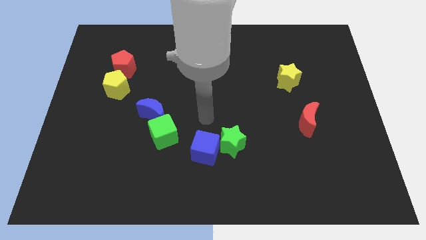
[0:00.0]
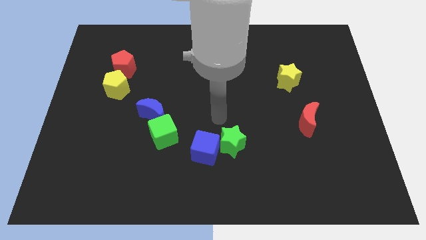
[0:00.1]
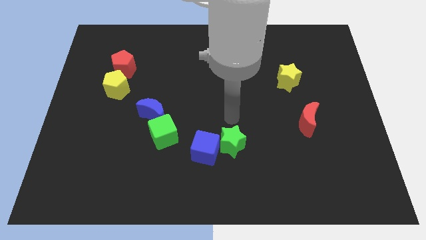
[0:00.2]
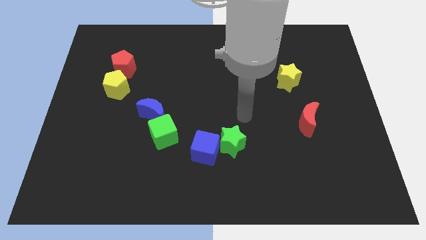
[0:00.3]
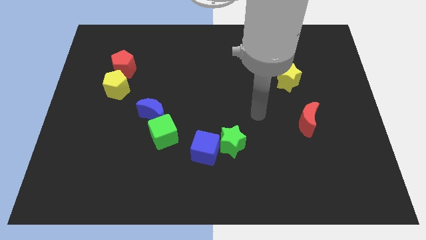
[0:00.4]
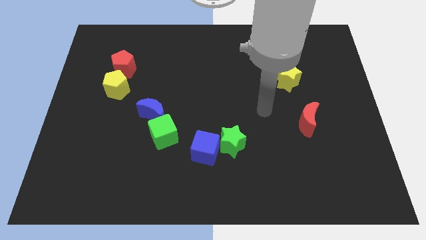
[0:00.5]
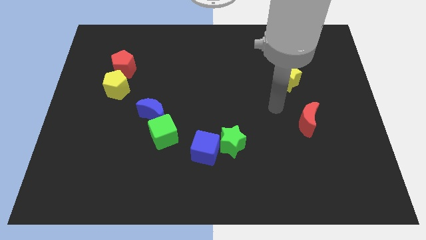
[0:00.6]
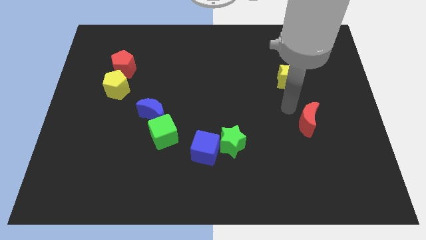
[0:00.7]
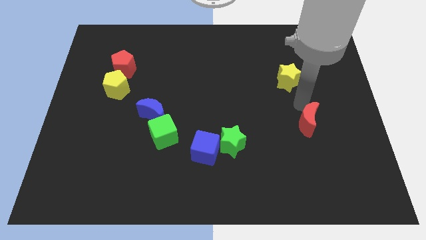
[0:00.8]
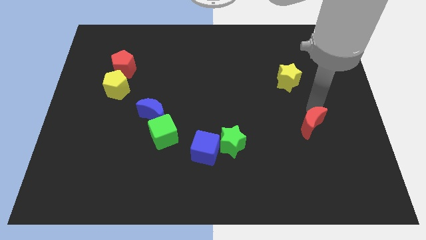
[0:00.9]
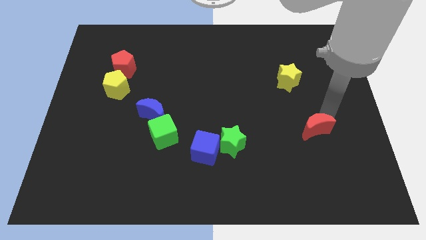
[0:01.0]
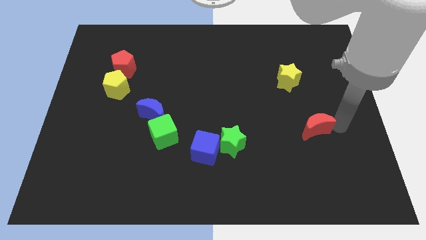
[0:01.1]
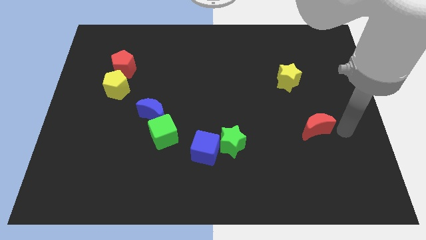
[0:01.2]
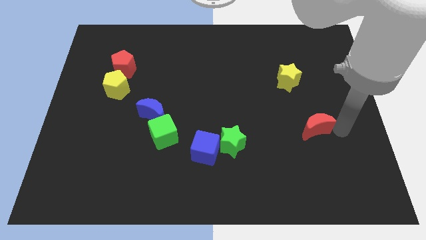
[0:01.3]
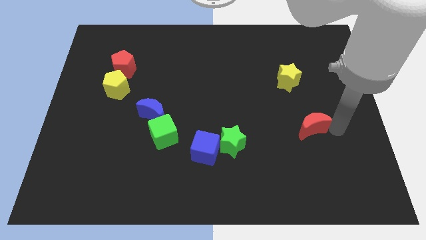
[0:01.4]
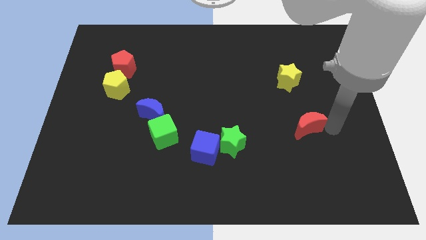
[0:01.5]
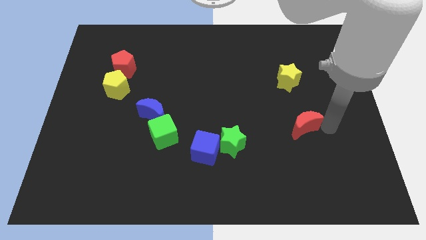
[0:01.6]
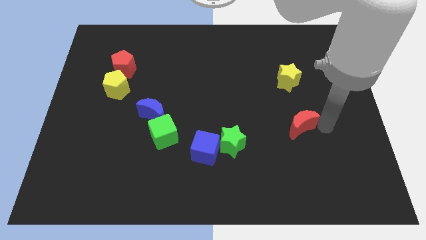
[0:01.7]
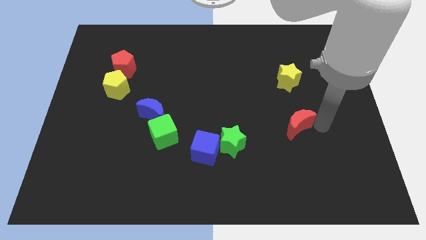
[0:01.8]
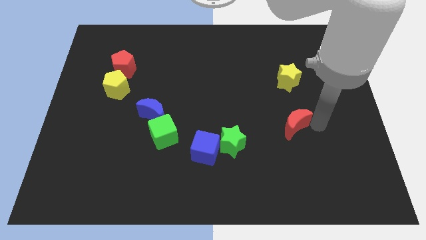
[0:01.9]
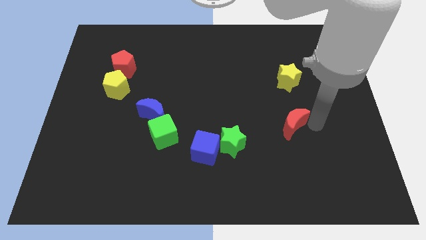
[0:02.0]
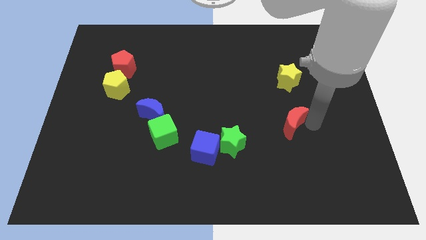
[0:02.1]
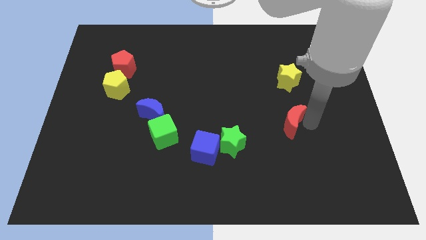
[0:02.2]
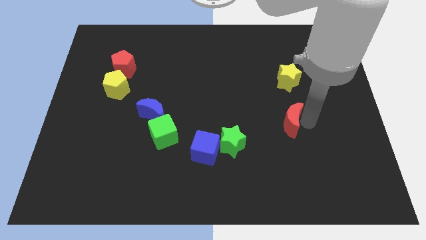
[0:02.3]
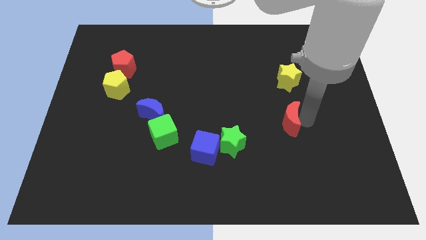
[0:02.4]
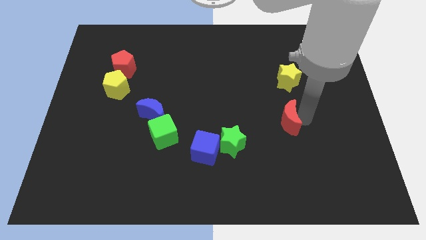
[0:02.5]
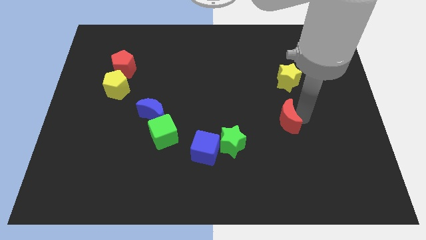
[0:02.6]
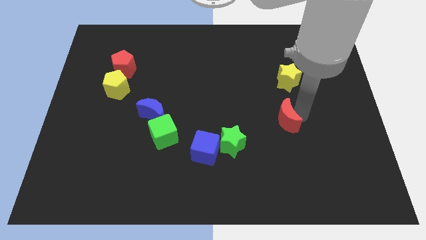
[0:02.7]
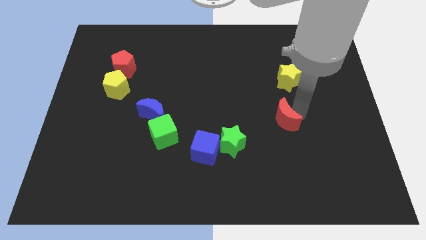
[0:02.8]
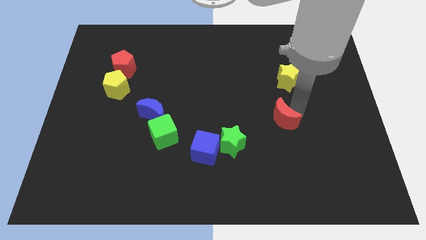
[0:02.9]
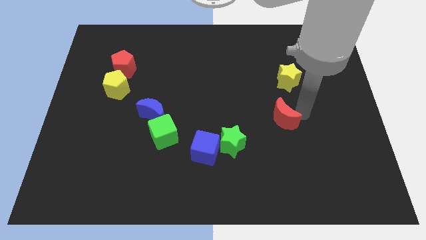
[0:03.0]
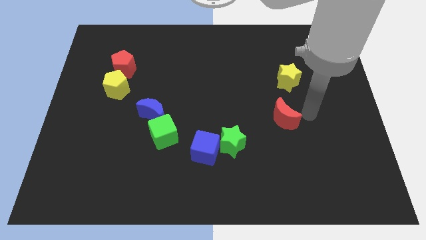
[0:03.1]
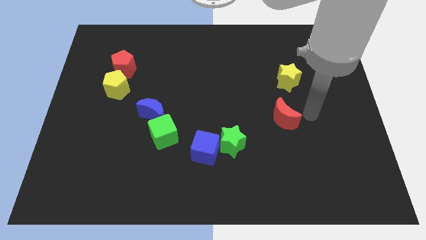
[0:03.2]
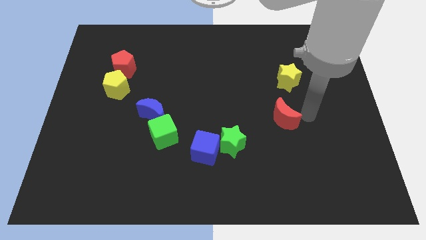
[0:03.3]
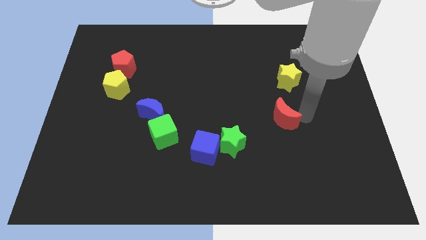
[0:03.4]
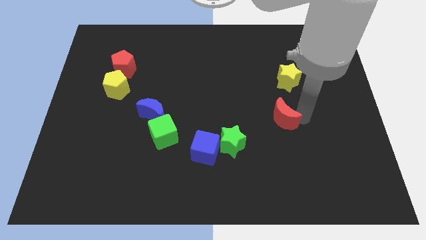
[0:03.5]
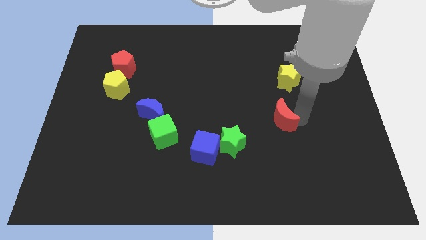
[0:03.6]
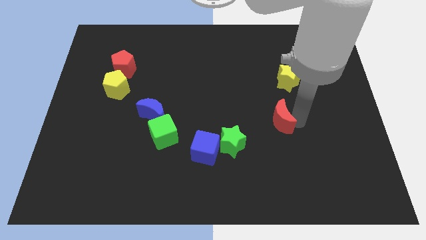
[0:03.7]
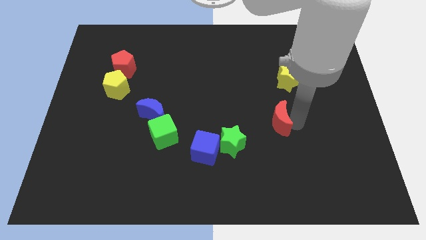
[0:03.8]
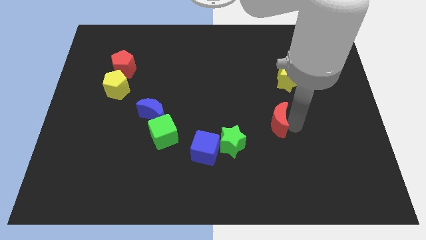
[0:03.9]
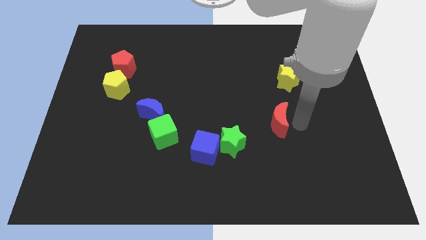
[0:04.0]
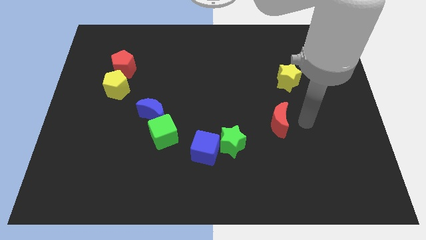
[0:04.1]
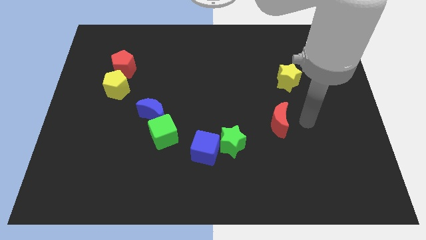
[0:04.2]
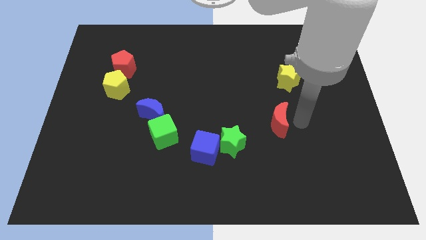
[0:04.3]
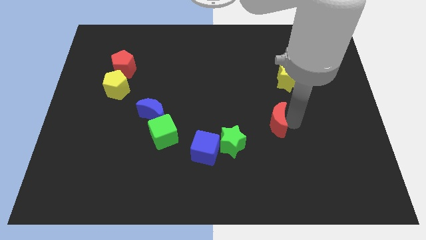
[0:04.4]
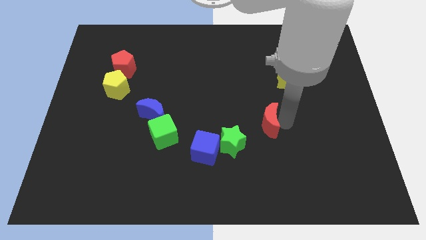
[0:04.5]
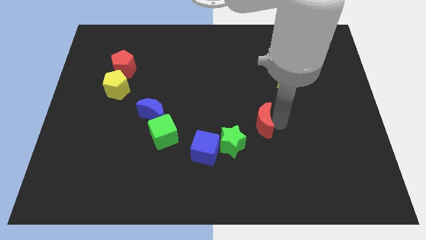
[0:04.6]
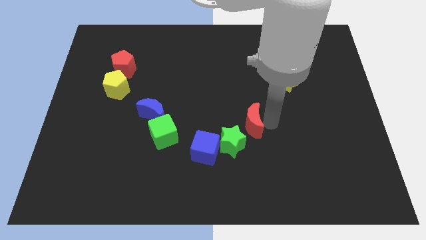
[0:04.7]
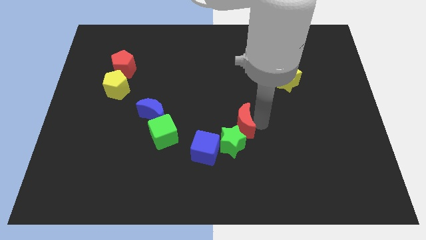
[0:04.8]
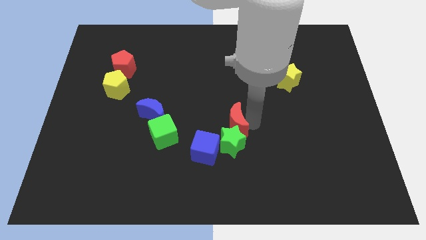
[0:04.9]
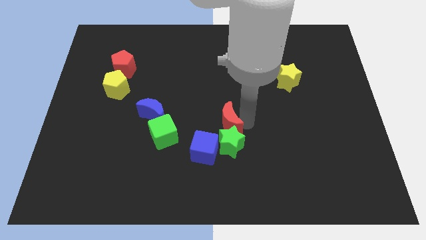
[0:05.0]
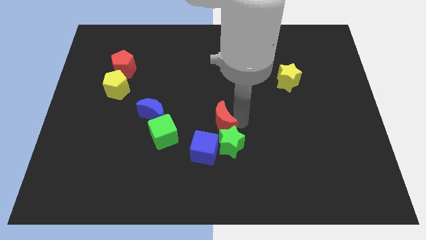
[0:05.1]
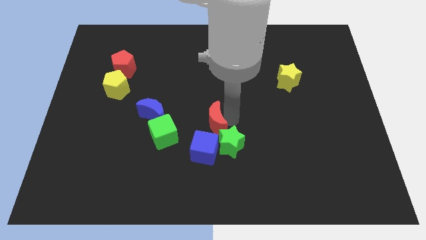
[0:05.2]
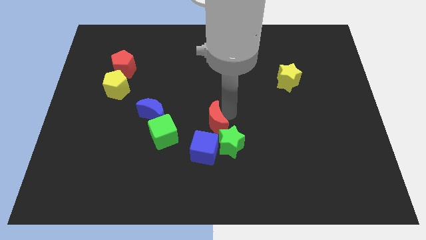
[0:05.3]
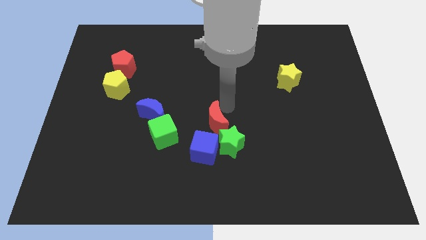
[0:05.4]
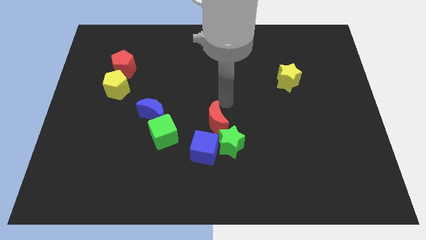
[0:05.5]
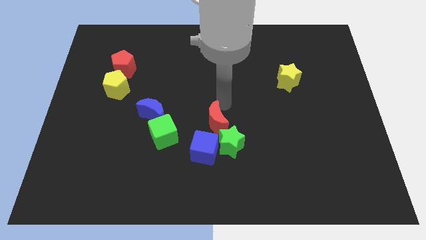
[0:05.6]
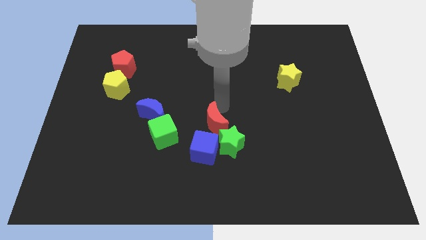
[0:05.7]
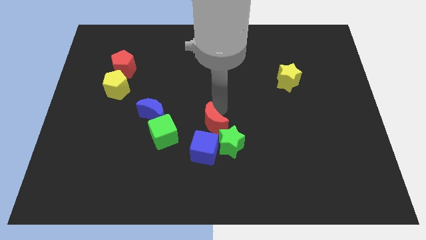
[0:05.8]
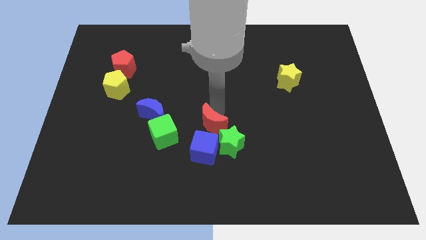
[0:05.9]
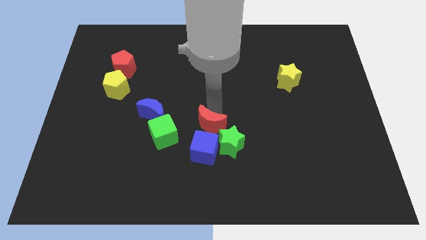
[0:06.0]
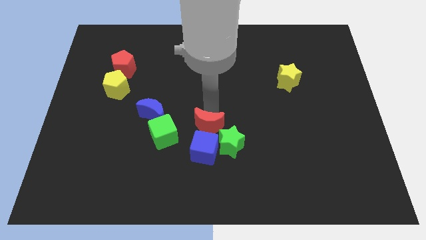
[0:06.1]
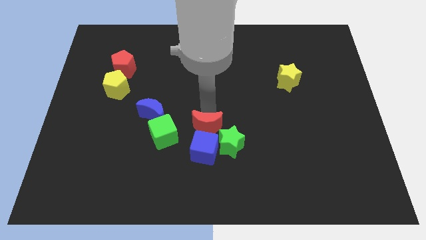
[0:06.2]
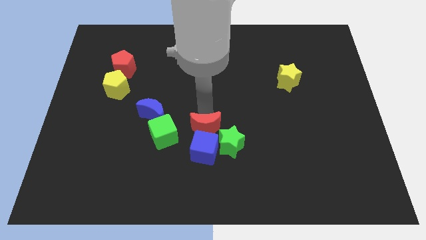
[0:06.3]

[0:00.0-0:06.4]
move the red moon towards the blue cube
